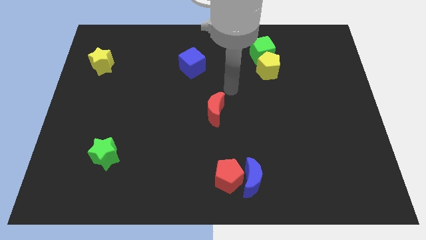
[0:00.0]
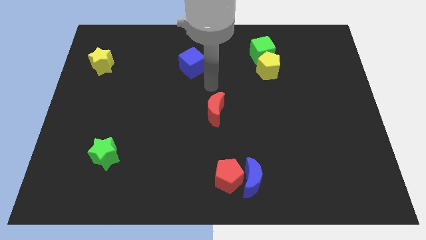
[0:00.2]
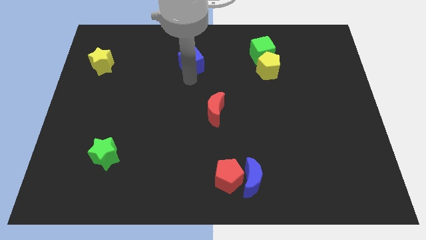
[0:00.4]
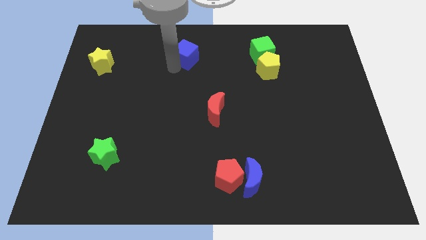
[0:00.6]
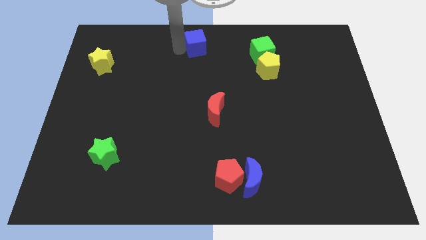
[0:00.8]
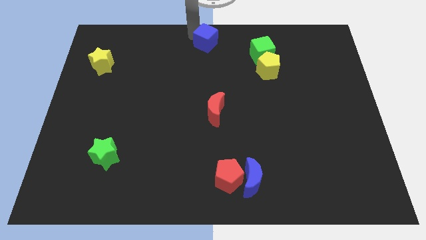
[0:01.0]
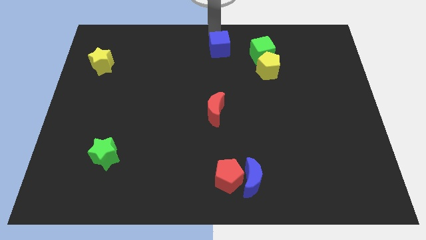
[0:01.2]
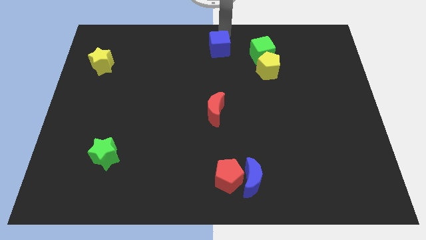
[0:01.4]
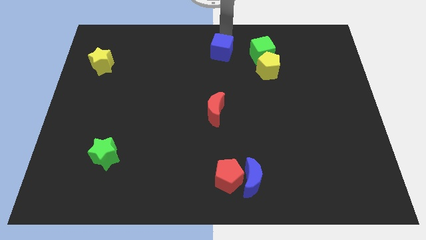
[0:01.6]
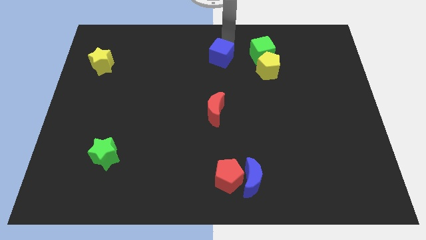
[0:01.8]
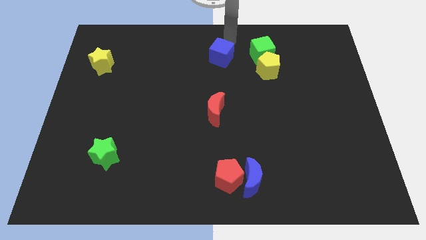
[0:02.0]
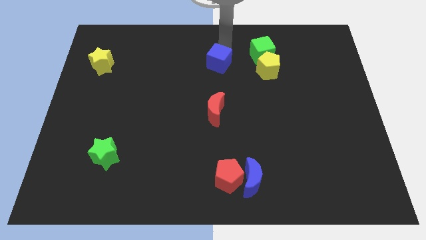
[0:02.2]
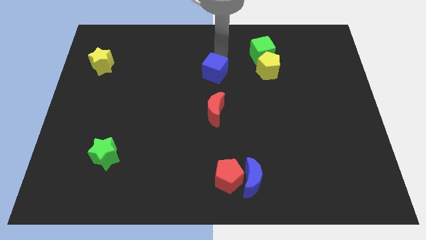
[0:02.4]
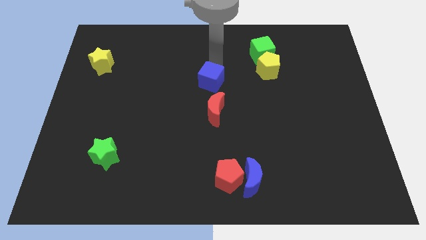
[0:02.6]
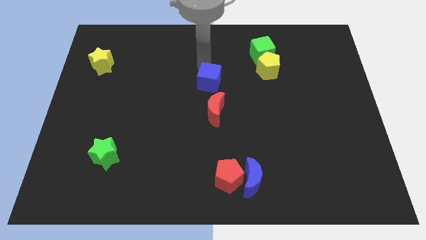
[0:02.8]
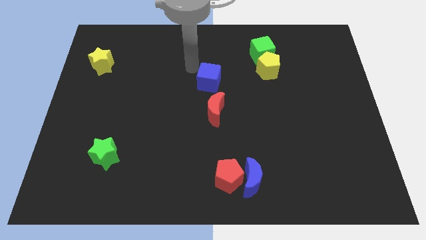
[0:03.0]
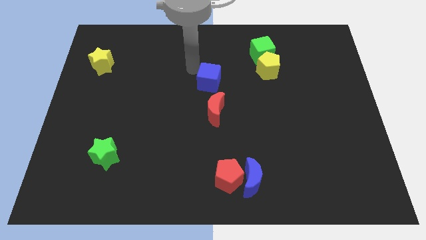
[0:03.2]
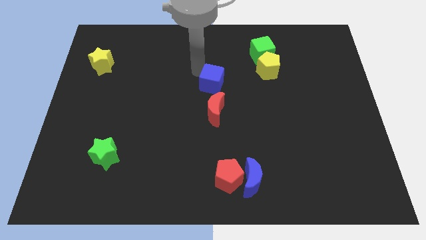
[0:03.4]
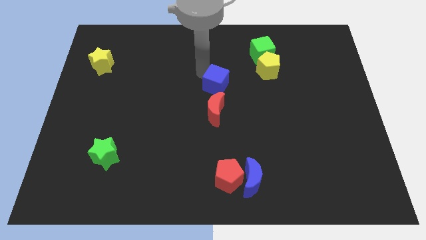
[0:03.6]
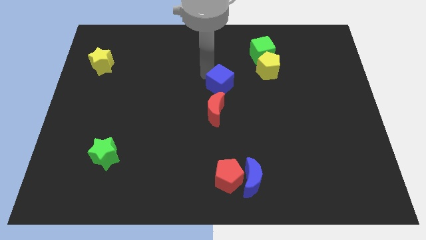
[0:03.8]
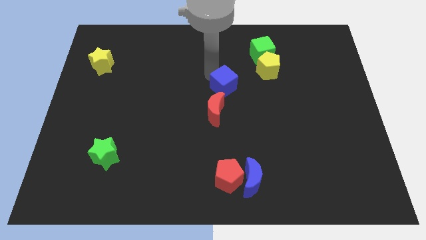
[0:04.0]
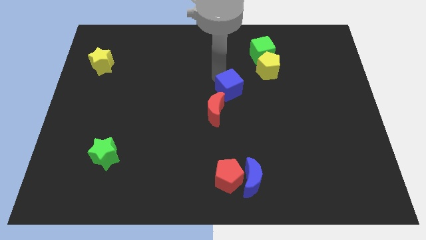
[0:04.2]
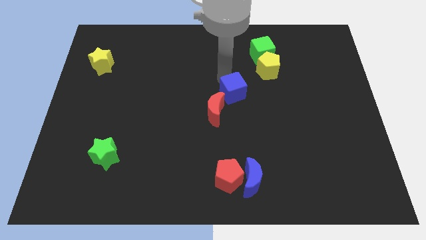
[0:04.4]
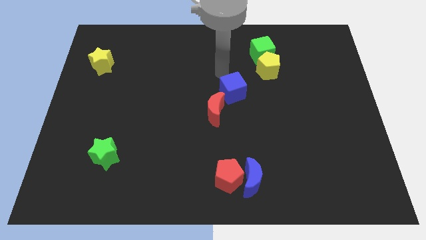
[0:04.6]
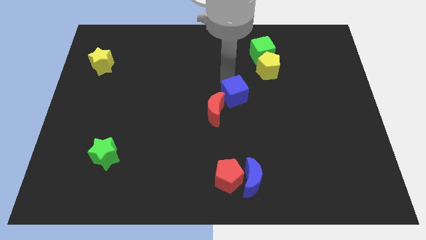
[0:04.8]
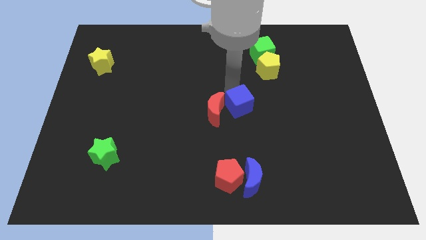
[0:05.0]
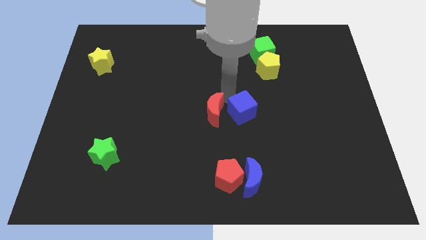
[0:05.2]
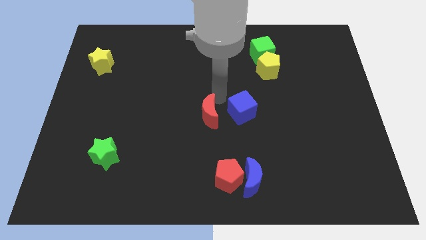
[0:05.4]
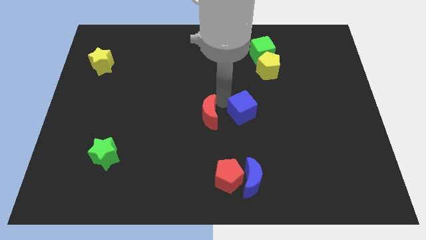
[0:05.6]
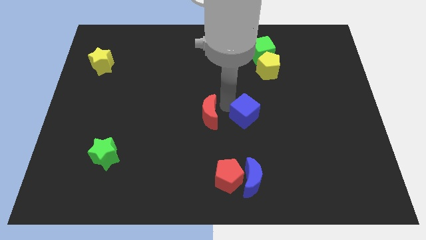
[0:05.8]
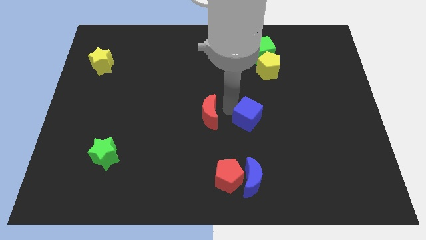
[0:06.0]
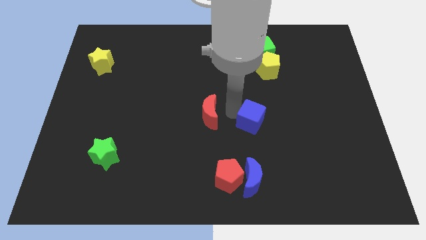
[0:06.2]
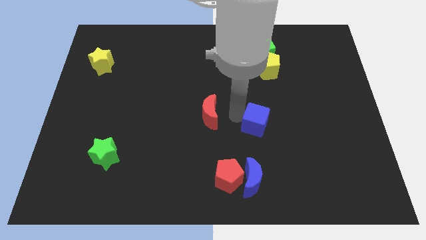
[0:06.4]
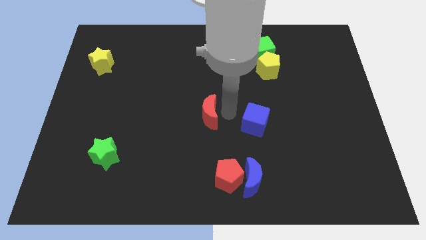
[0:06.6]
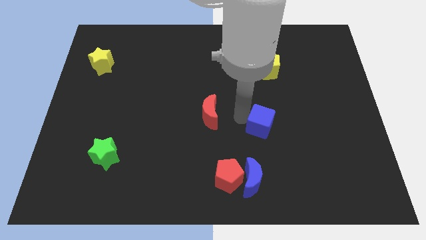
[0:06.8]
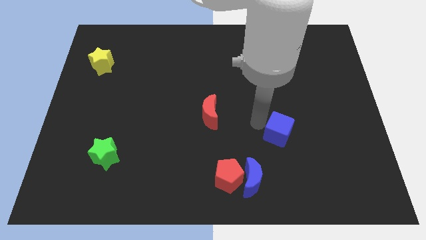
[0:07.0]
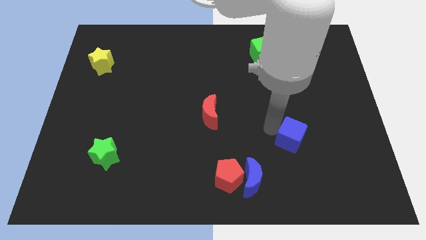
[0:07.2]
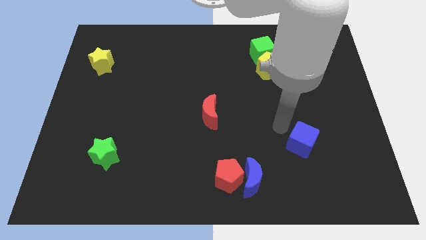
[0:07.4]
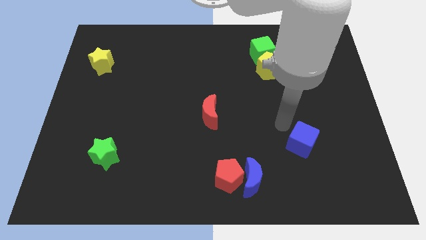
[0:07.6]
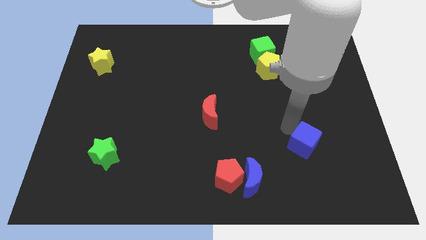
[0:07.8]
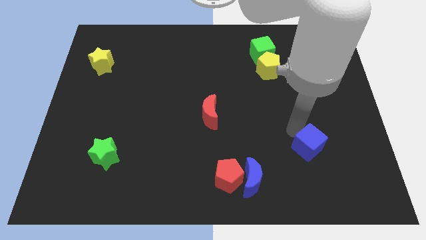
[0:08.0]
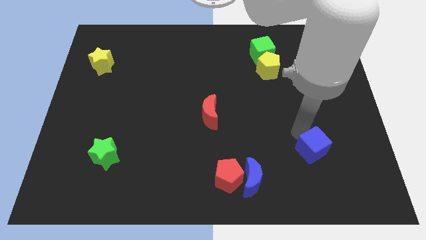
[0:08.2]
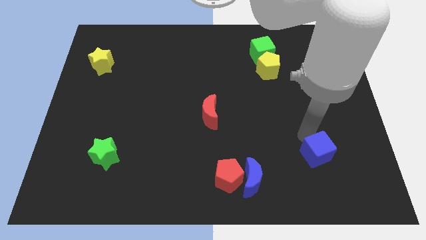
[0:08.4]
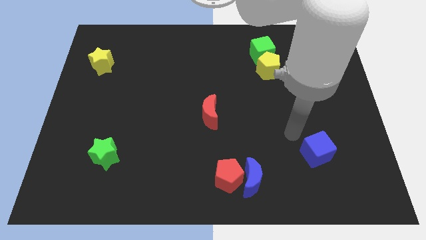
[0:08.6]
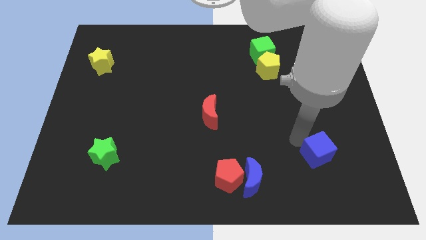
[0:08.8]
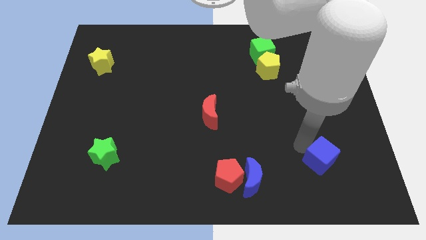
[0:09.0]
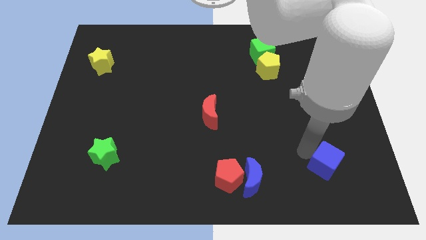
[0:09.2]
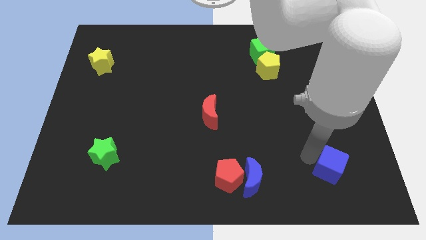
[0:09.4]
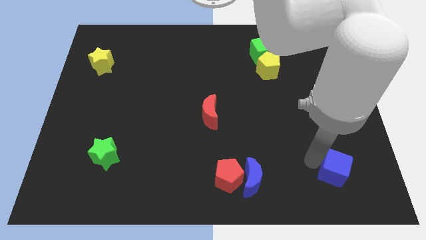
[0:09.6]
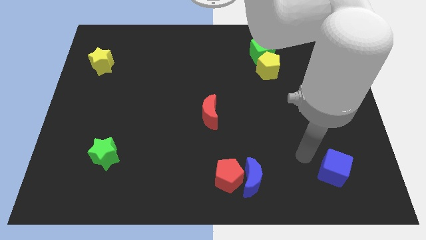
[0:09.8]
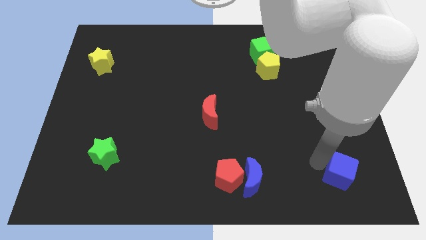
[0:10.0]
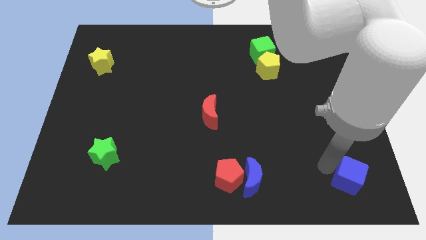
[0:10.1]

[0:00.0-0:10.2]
push the blue cube to the bottom right

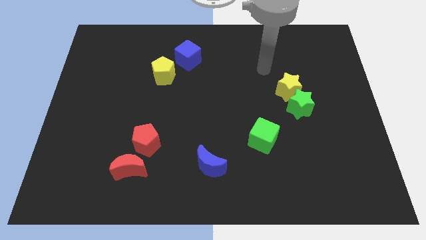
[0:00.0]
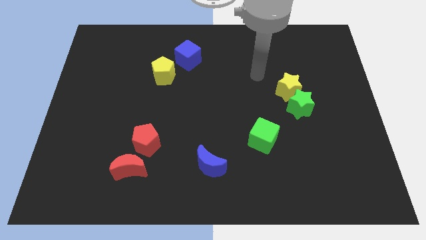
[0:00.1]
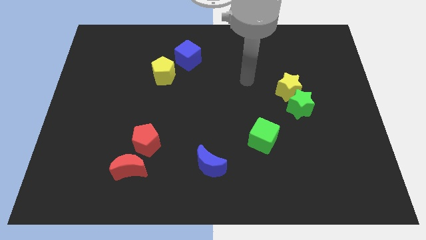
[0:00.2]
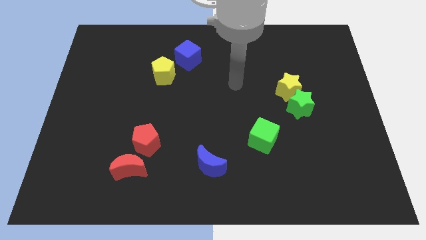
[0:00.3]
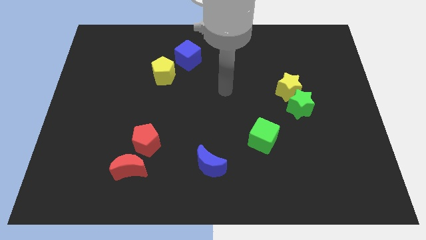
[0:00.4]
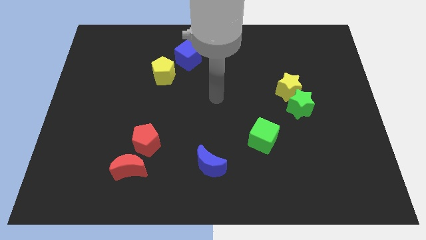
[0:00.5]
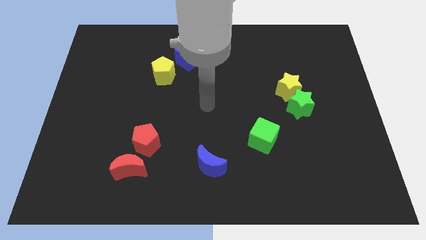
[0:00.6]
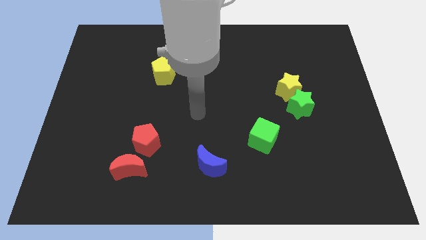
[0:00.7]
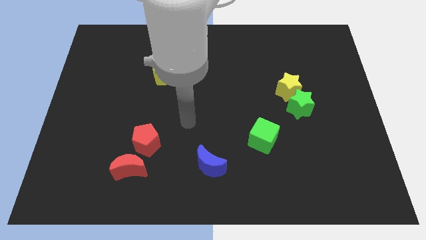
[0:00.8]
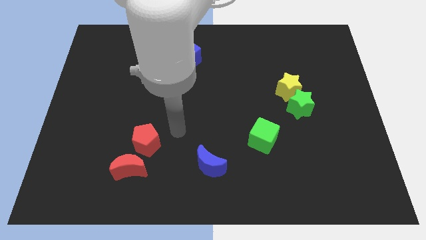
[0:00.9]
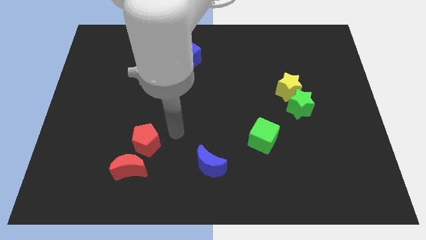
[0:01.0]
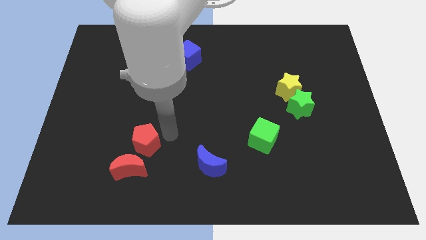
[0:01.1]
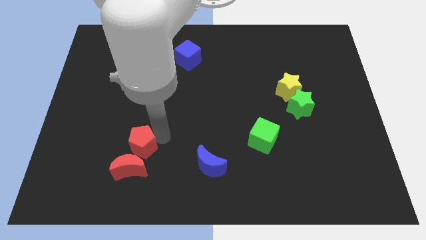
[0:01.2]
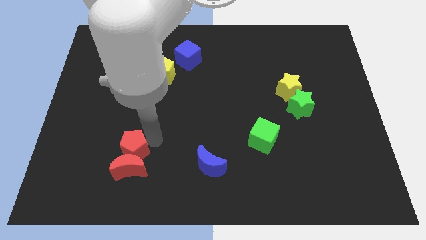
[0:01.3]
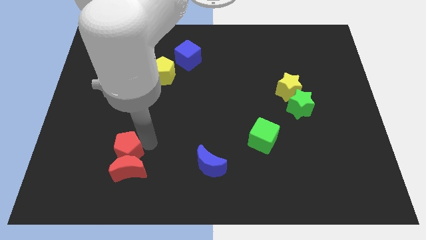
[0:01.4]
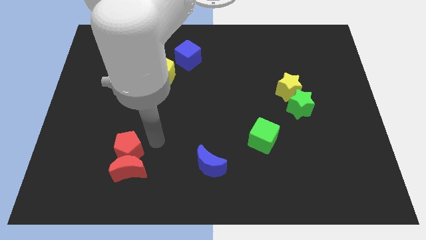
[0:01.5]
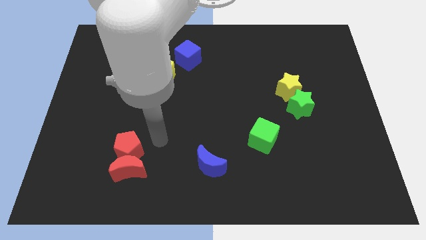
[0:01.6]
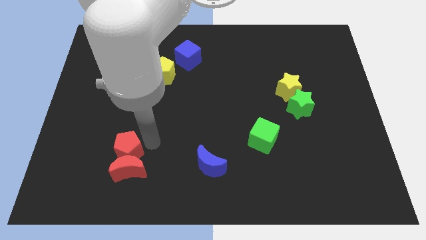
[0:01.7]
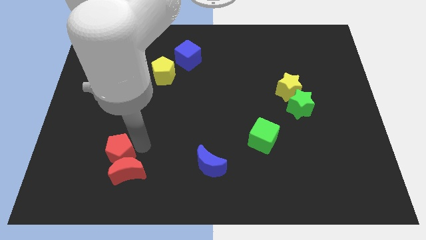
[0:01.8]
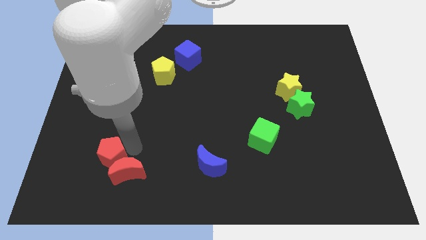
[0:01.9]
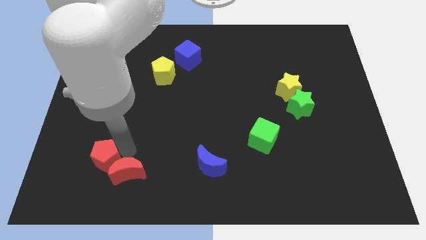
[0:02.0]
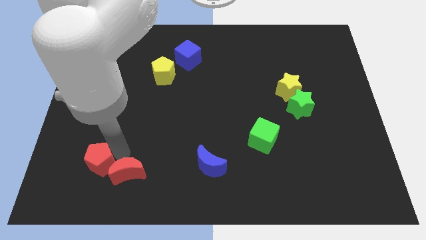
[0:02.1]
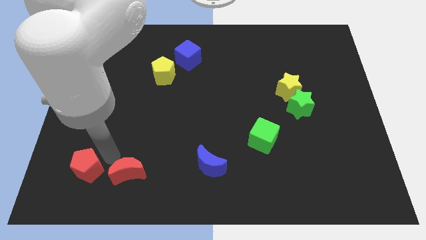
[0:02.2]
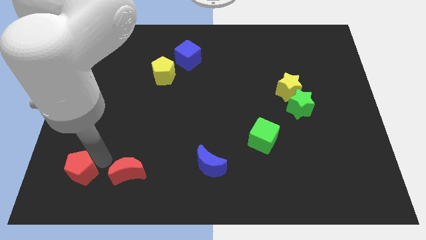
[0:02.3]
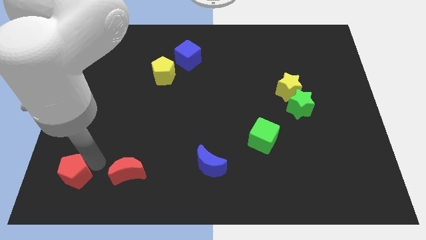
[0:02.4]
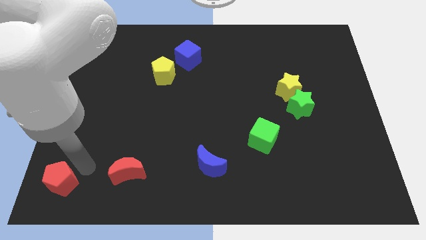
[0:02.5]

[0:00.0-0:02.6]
slide the red pentagon to the bottom left
